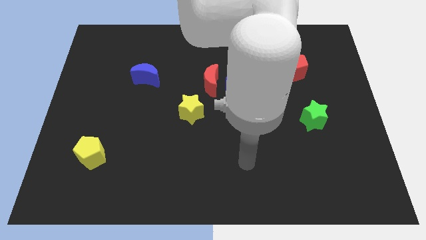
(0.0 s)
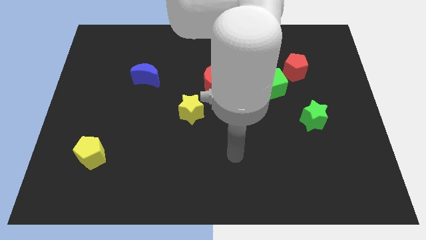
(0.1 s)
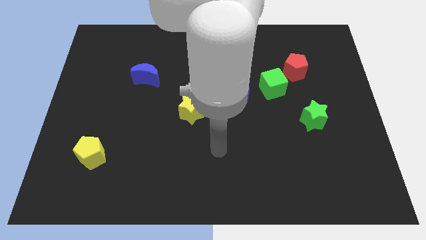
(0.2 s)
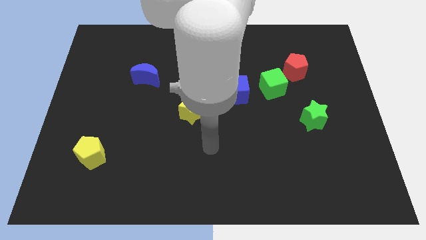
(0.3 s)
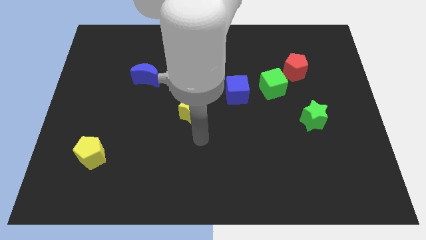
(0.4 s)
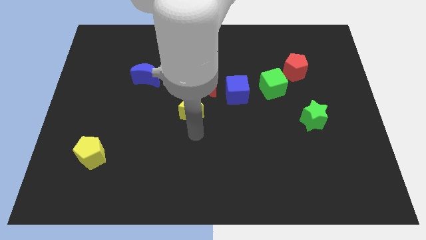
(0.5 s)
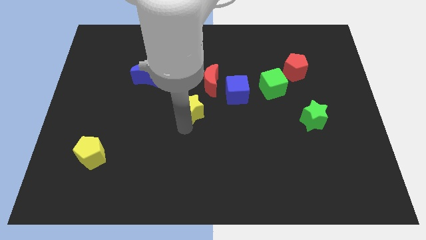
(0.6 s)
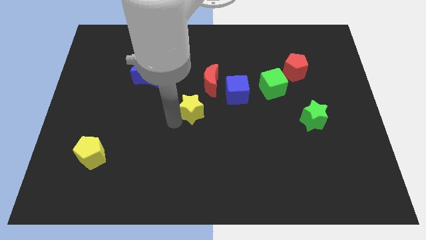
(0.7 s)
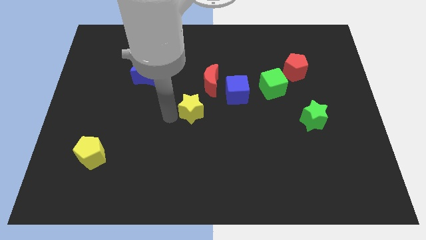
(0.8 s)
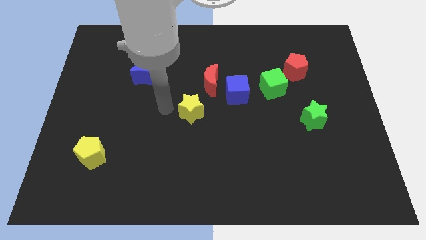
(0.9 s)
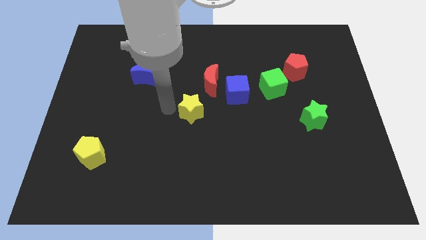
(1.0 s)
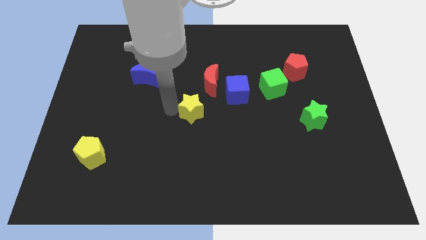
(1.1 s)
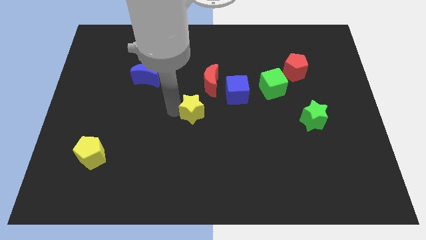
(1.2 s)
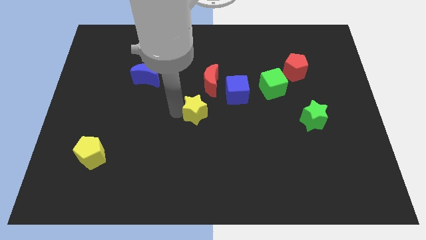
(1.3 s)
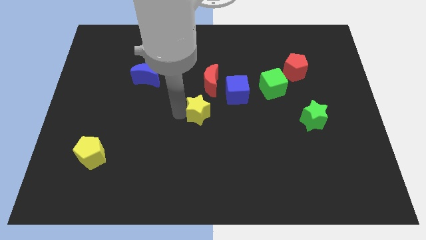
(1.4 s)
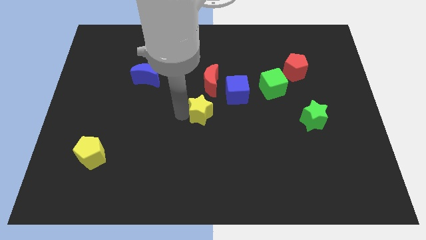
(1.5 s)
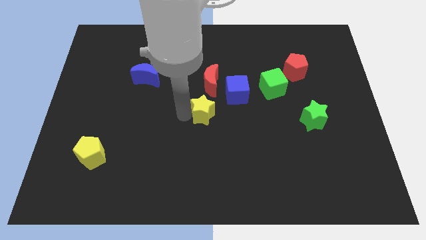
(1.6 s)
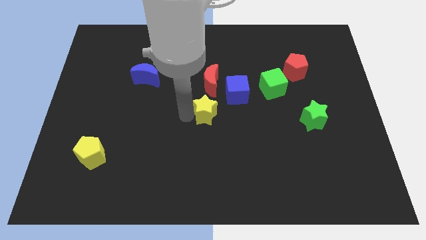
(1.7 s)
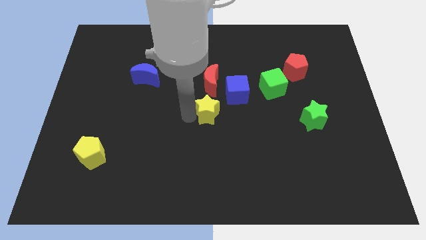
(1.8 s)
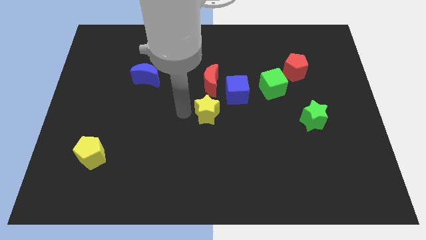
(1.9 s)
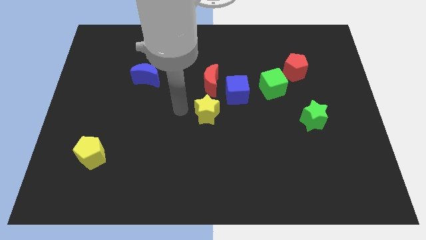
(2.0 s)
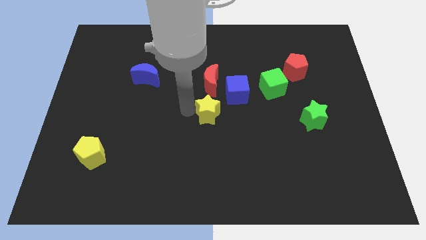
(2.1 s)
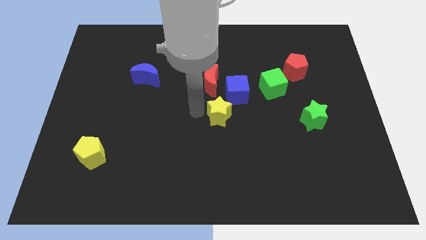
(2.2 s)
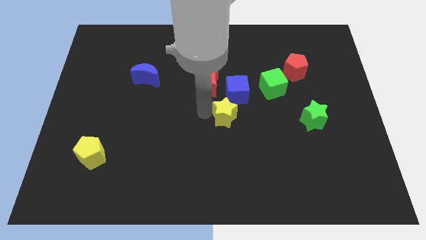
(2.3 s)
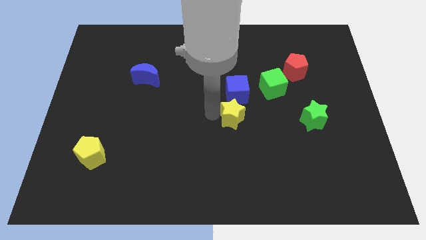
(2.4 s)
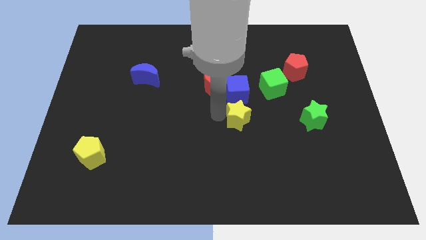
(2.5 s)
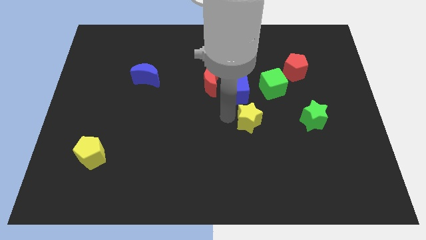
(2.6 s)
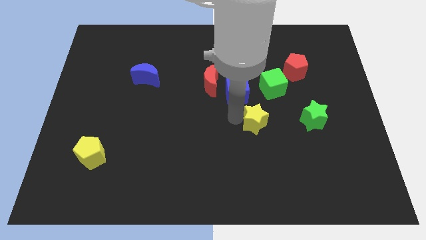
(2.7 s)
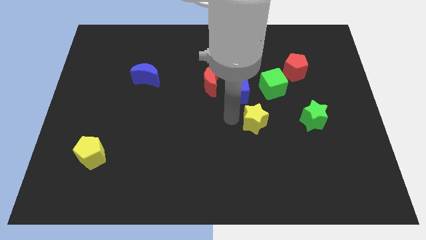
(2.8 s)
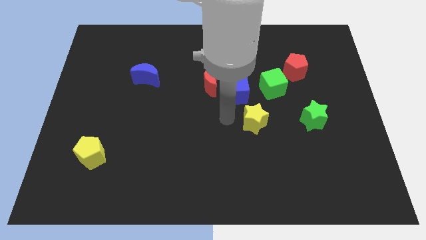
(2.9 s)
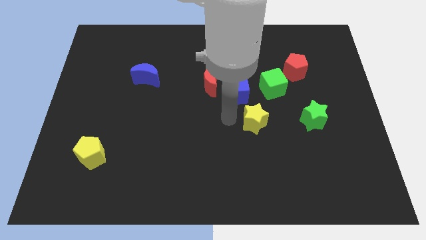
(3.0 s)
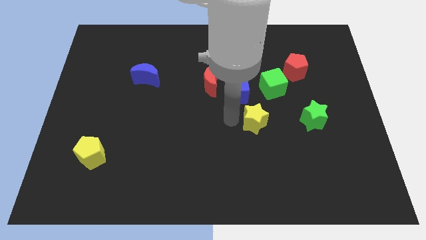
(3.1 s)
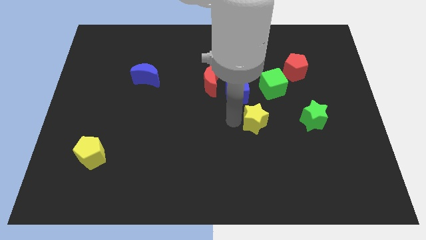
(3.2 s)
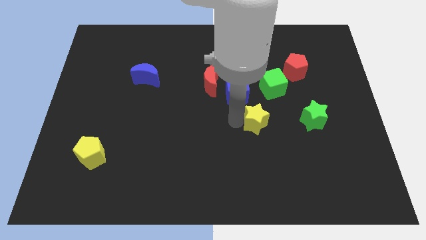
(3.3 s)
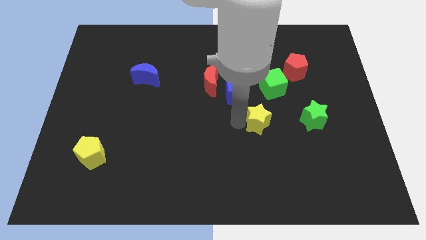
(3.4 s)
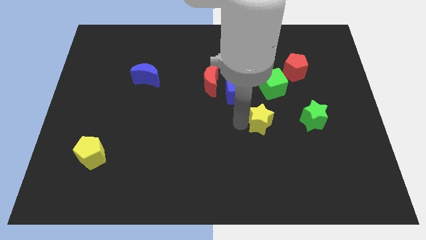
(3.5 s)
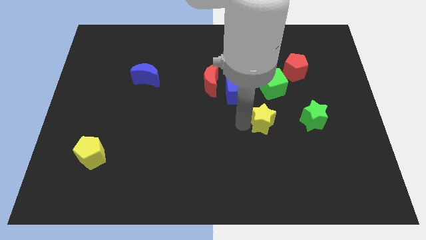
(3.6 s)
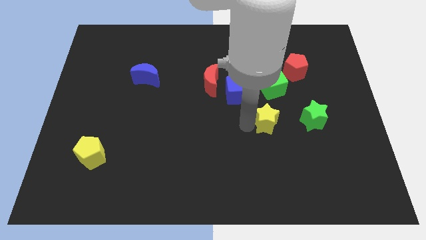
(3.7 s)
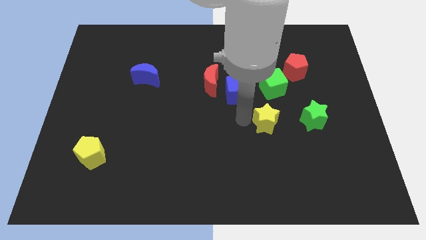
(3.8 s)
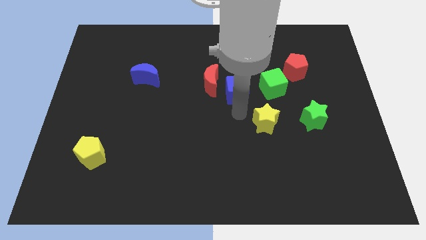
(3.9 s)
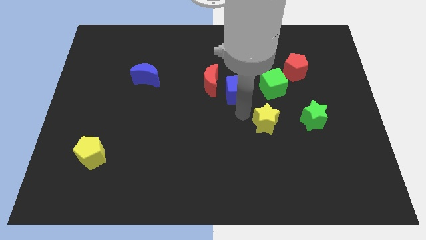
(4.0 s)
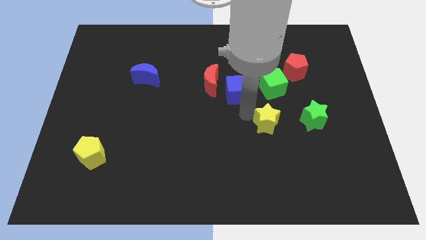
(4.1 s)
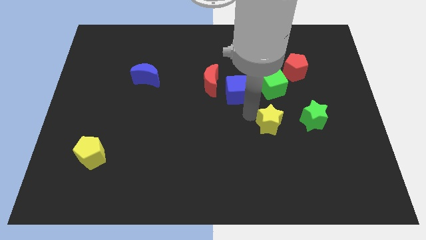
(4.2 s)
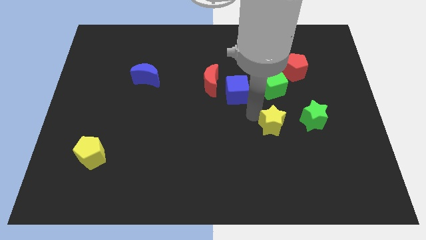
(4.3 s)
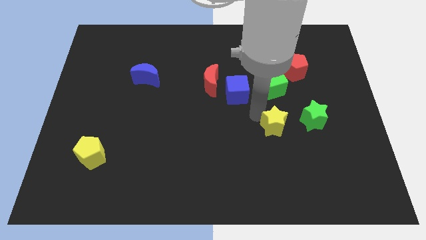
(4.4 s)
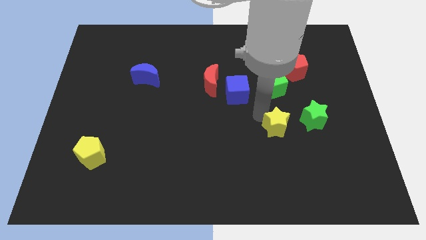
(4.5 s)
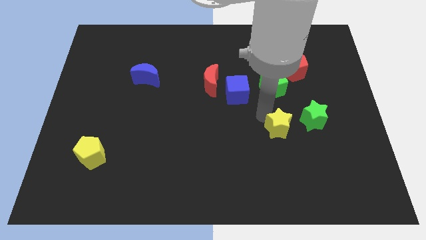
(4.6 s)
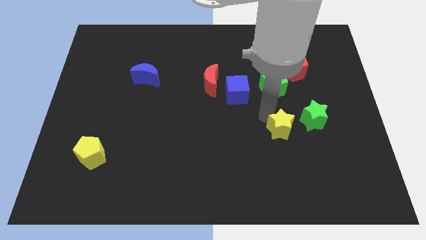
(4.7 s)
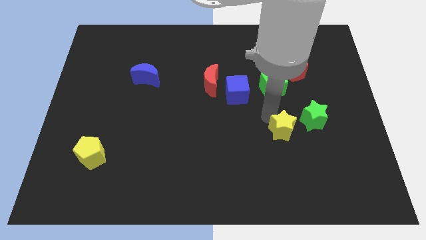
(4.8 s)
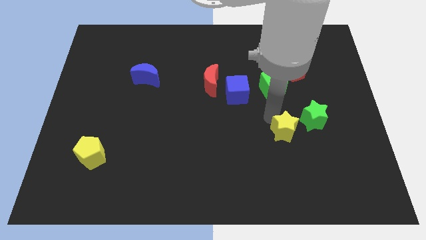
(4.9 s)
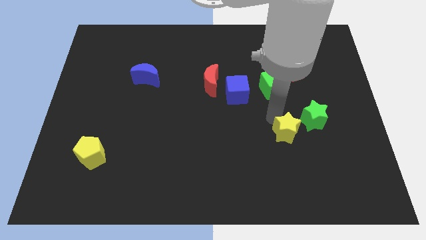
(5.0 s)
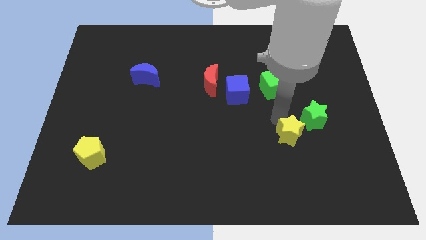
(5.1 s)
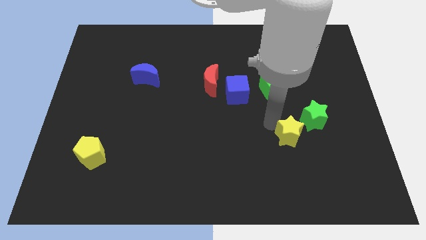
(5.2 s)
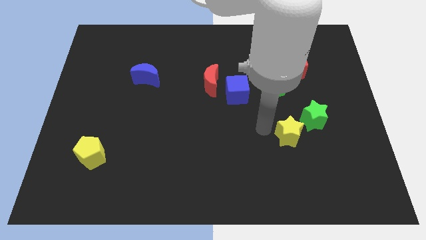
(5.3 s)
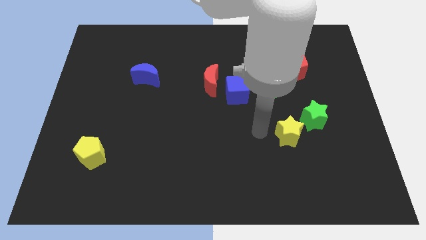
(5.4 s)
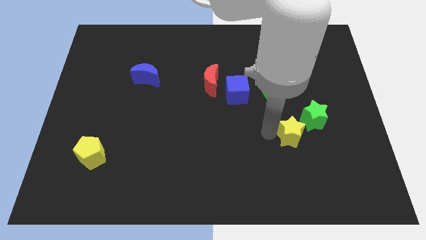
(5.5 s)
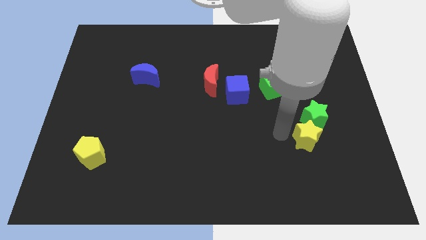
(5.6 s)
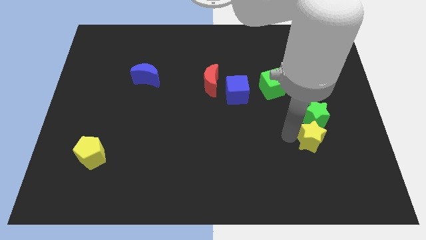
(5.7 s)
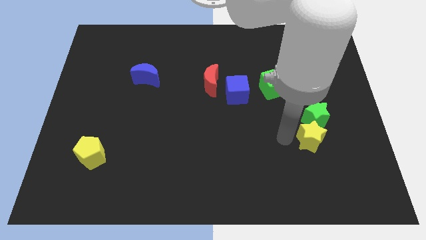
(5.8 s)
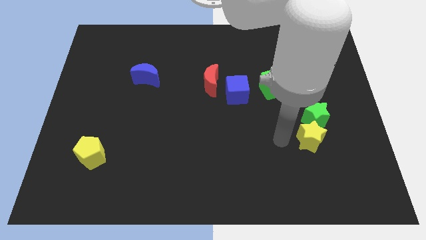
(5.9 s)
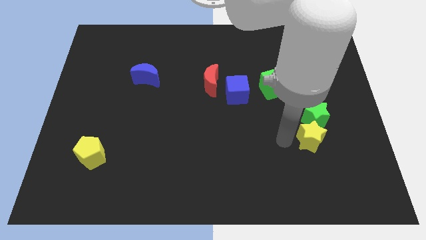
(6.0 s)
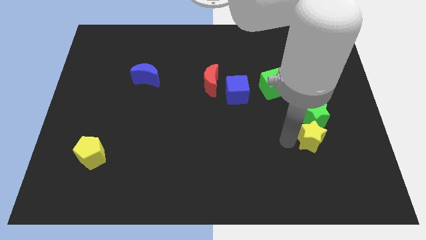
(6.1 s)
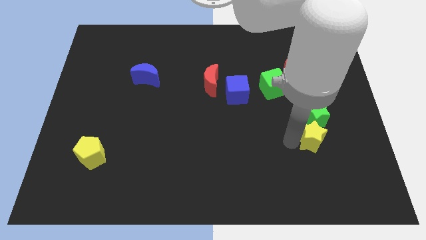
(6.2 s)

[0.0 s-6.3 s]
push the yellow star to the bottom right of the green star

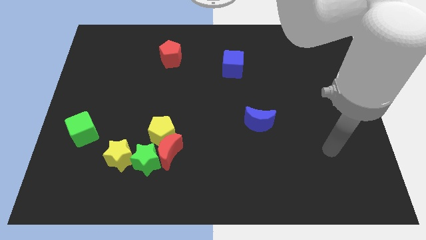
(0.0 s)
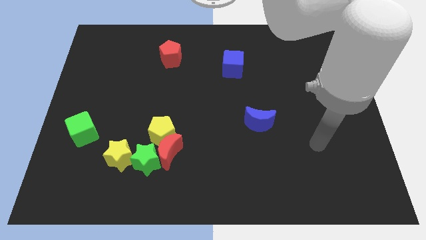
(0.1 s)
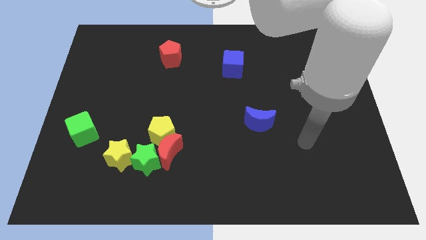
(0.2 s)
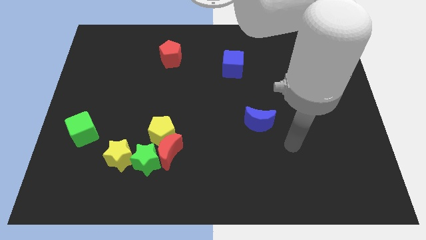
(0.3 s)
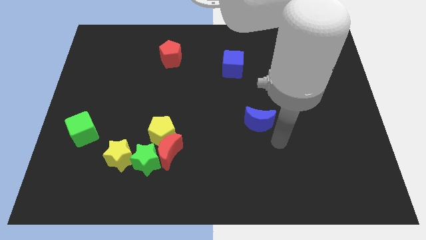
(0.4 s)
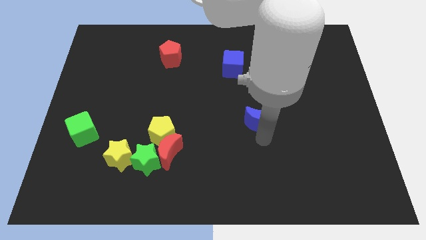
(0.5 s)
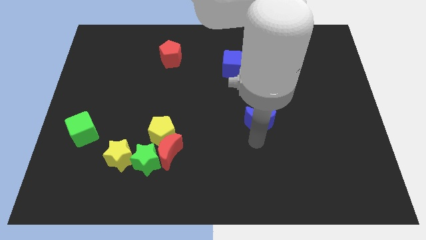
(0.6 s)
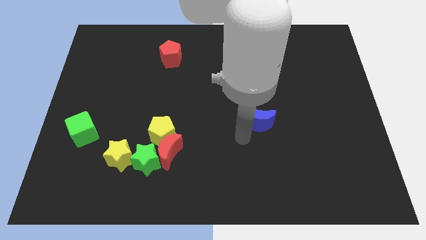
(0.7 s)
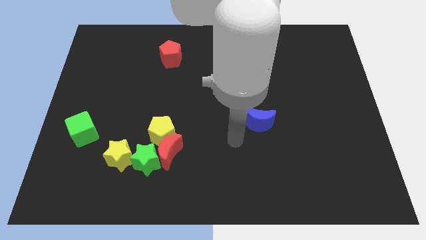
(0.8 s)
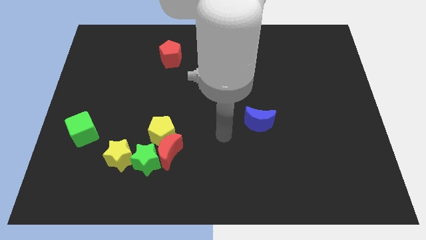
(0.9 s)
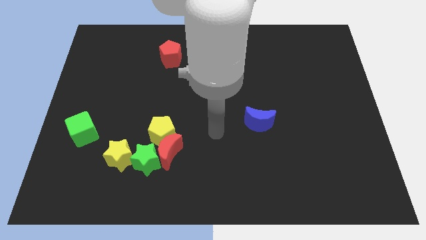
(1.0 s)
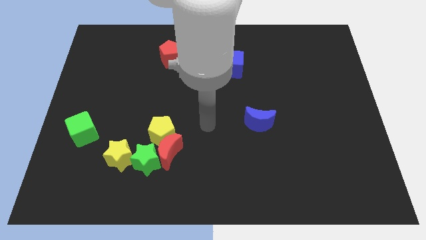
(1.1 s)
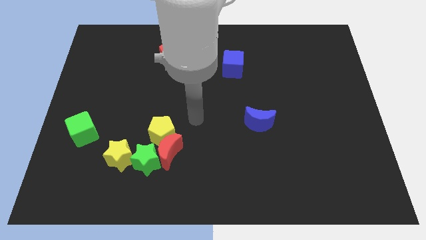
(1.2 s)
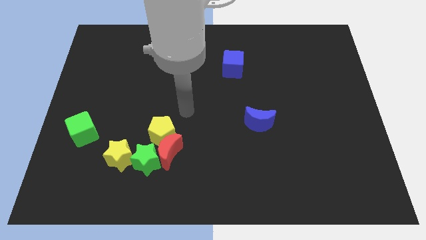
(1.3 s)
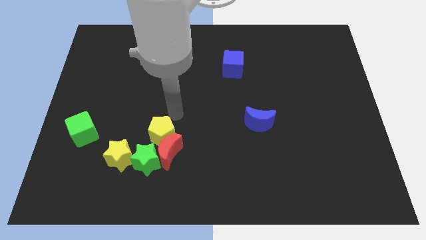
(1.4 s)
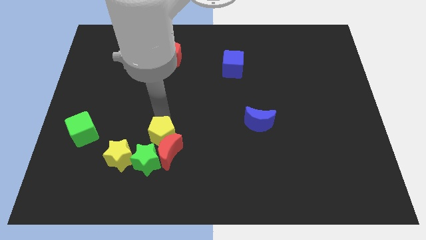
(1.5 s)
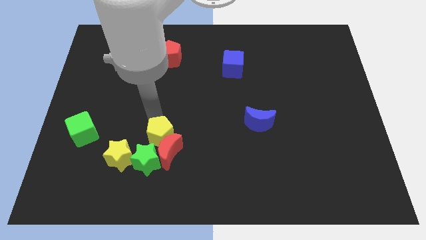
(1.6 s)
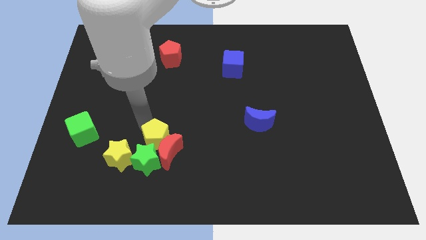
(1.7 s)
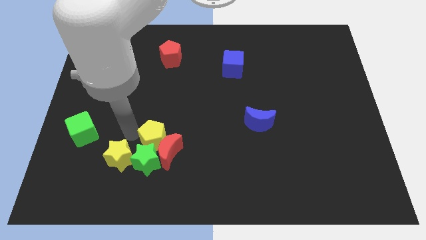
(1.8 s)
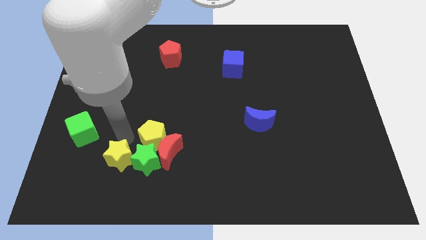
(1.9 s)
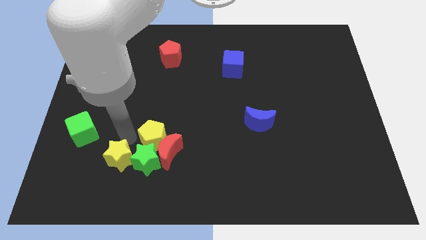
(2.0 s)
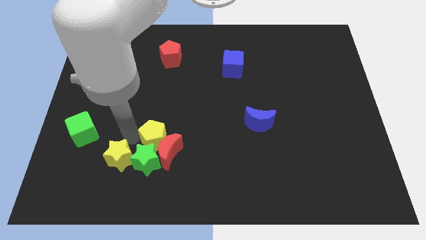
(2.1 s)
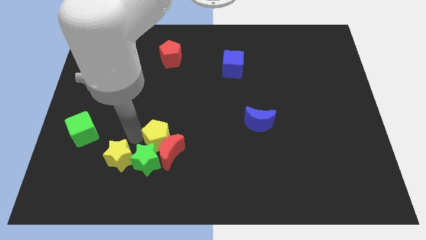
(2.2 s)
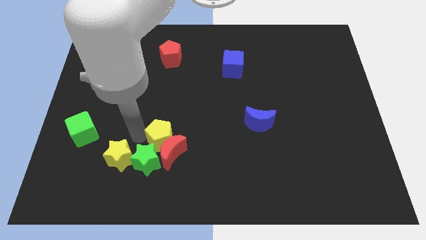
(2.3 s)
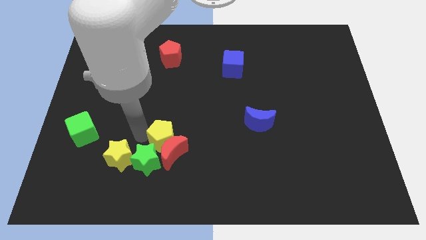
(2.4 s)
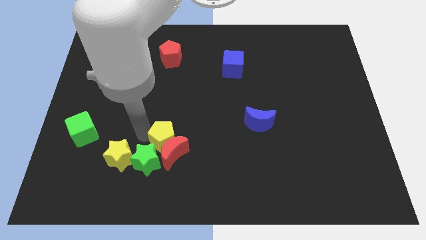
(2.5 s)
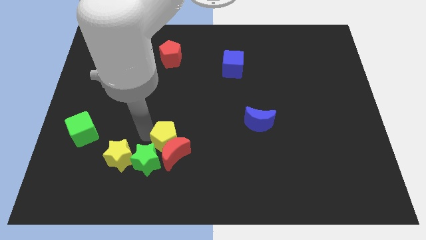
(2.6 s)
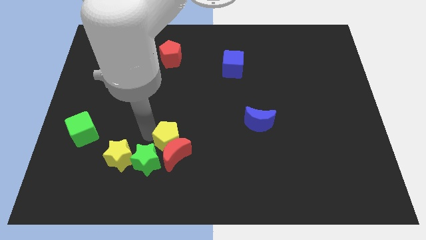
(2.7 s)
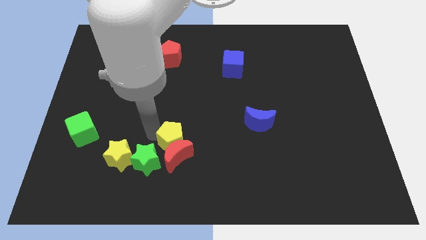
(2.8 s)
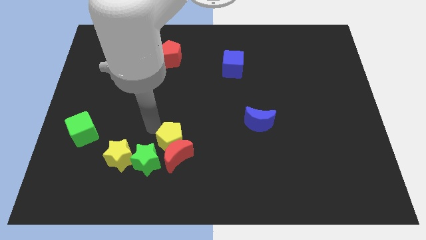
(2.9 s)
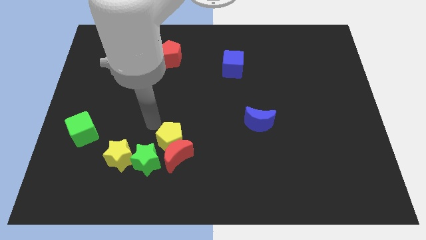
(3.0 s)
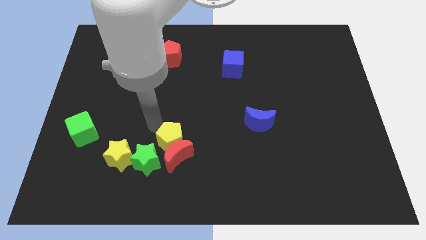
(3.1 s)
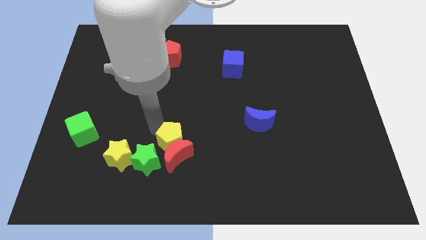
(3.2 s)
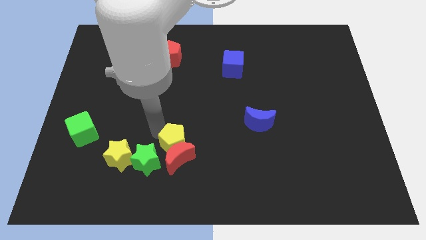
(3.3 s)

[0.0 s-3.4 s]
push the yellow pentagon to the right side of the green star
